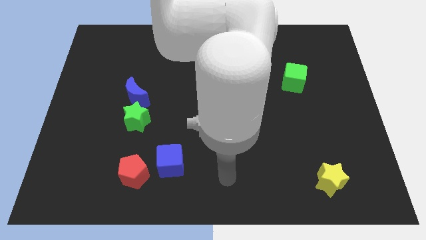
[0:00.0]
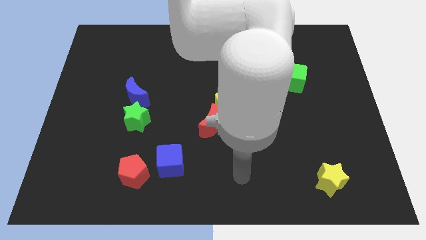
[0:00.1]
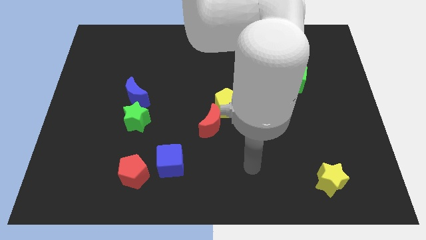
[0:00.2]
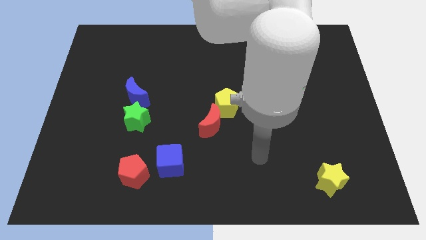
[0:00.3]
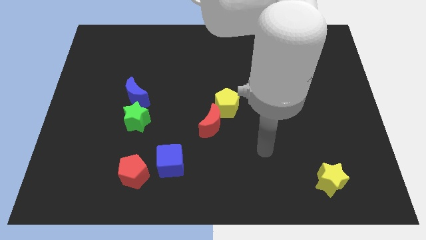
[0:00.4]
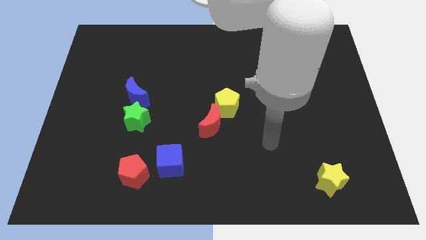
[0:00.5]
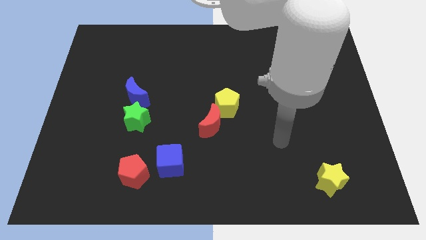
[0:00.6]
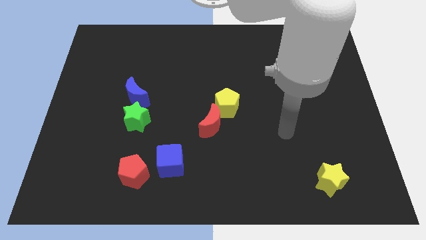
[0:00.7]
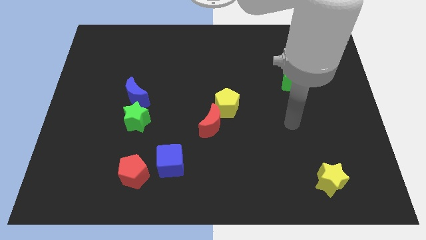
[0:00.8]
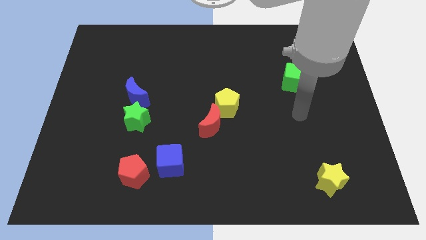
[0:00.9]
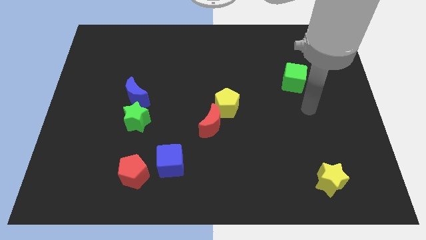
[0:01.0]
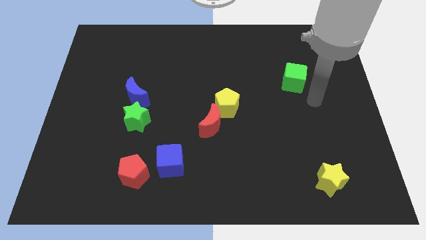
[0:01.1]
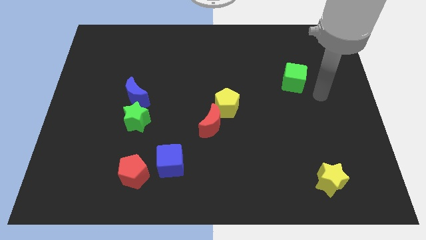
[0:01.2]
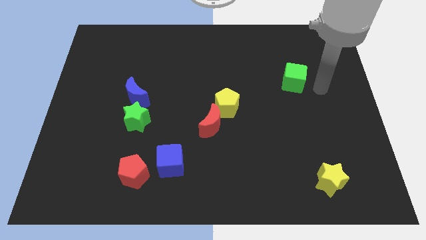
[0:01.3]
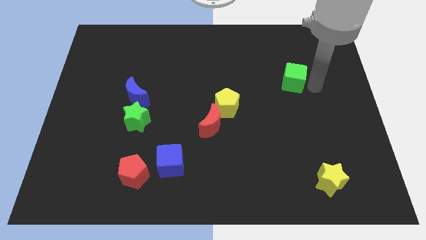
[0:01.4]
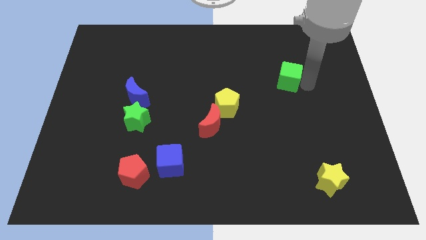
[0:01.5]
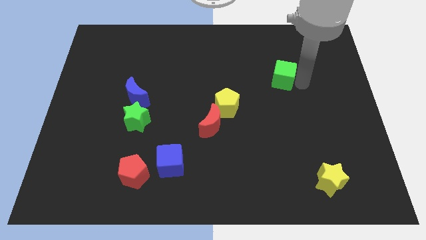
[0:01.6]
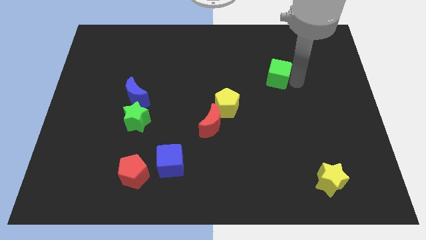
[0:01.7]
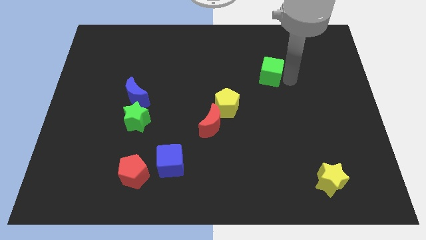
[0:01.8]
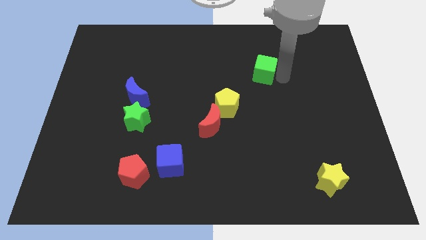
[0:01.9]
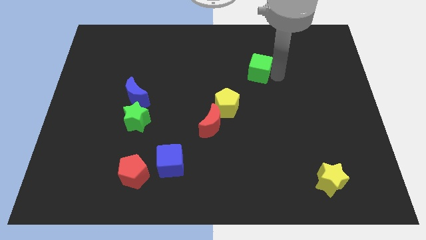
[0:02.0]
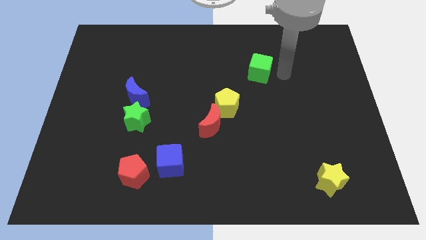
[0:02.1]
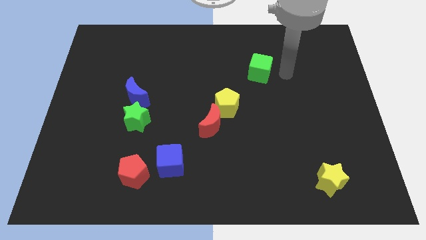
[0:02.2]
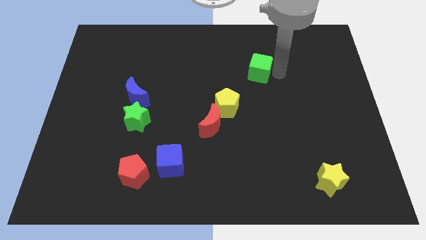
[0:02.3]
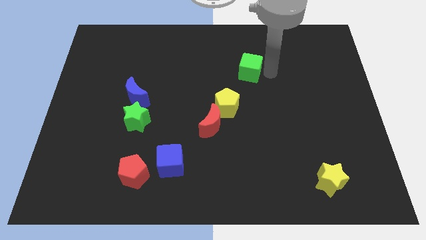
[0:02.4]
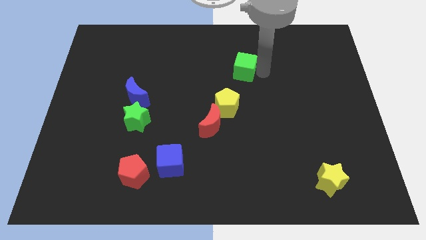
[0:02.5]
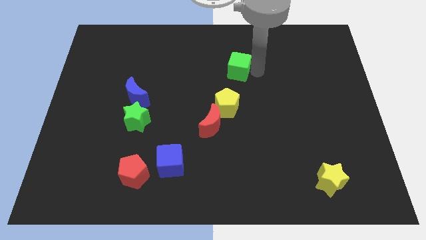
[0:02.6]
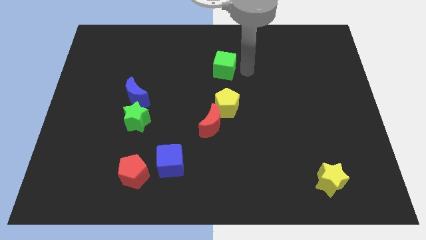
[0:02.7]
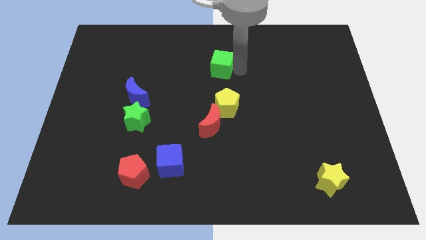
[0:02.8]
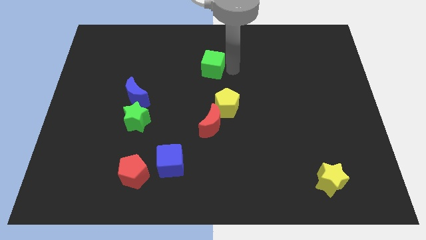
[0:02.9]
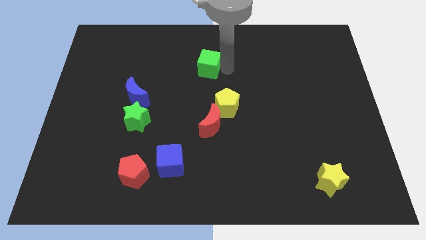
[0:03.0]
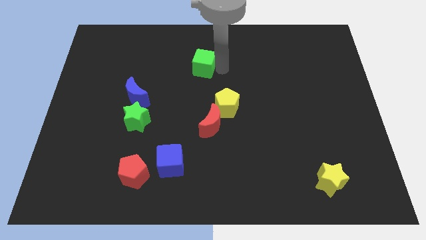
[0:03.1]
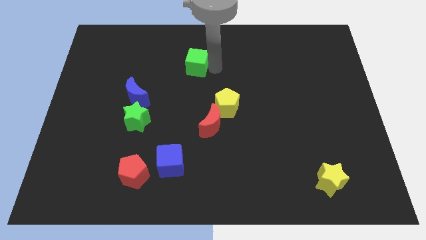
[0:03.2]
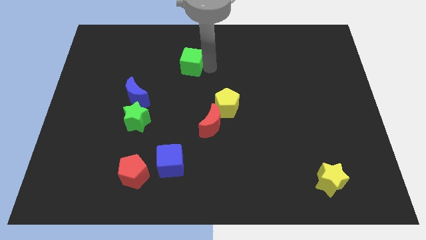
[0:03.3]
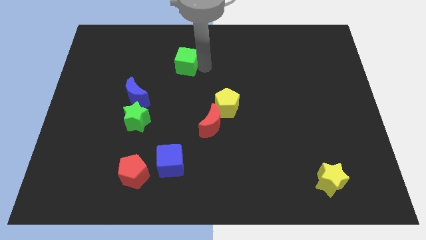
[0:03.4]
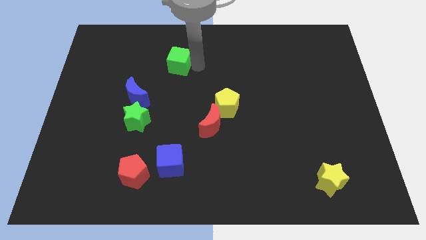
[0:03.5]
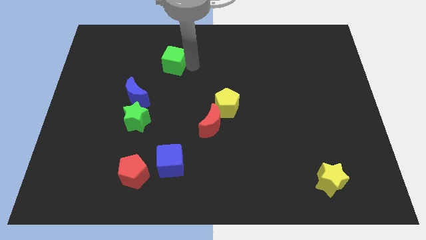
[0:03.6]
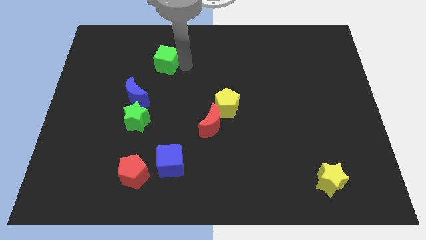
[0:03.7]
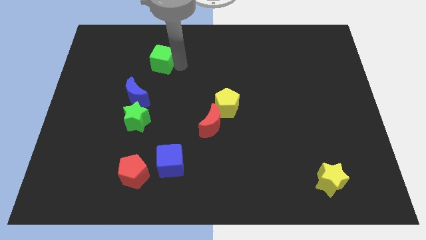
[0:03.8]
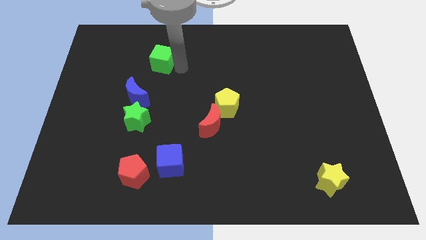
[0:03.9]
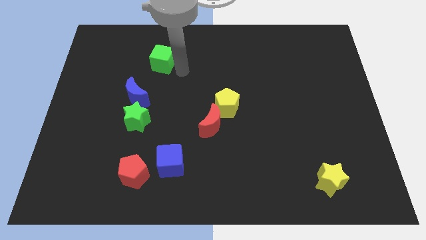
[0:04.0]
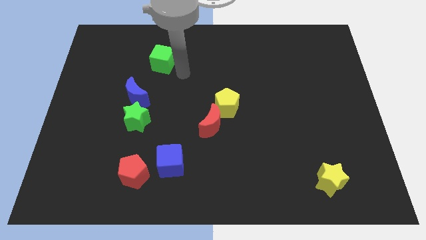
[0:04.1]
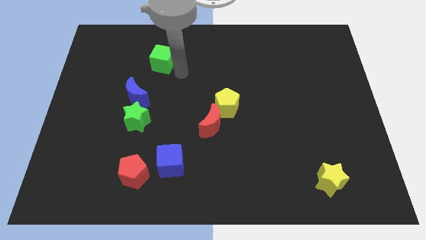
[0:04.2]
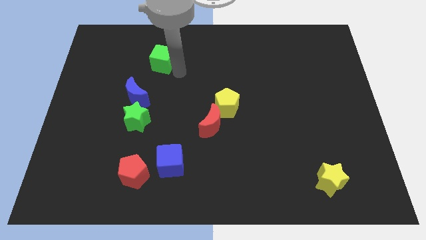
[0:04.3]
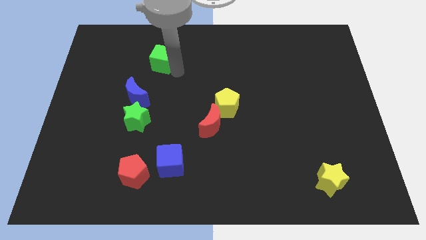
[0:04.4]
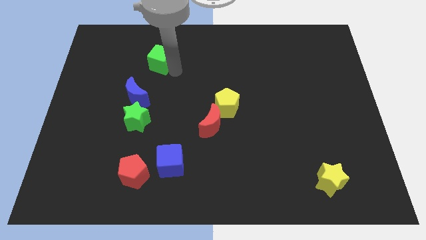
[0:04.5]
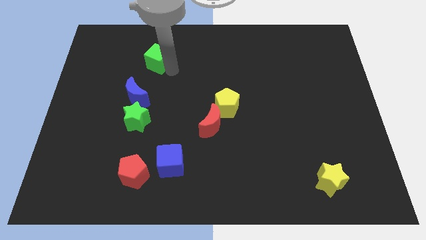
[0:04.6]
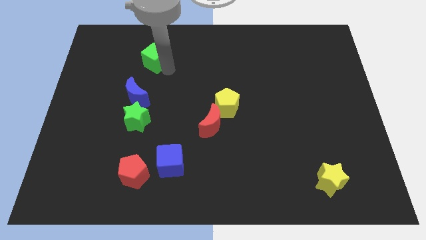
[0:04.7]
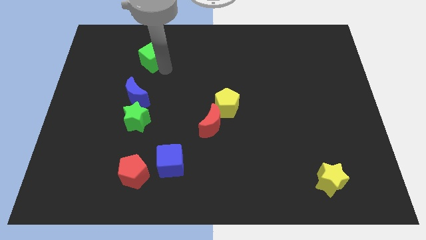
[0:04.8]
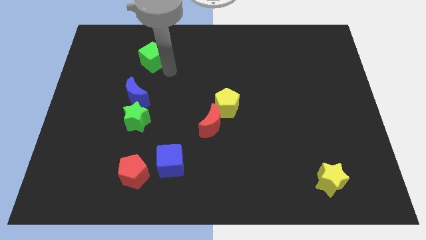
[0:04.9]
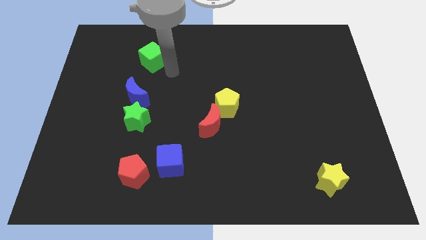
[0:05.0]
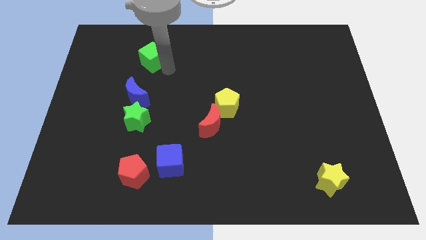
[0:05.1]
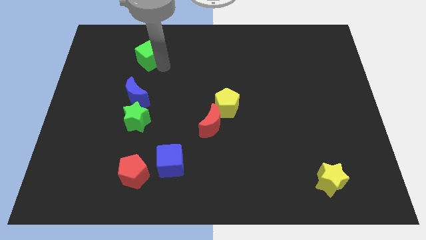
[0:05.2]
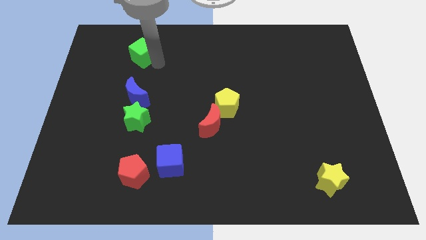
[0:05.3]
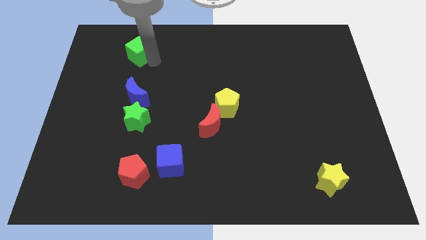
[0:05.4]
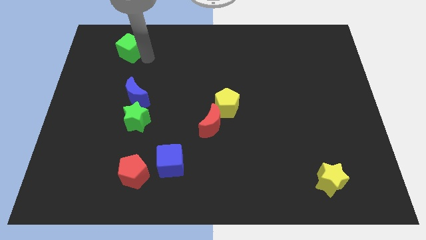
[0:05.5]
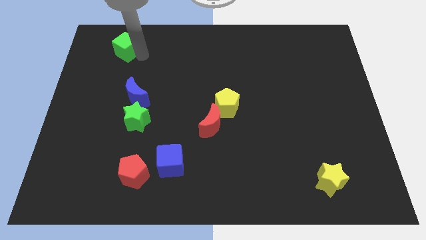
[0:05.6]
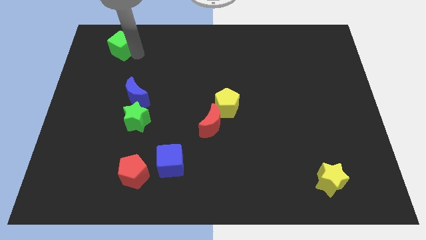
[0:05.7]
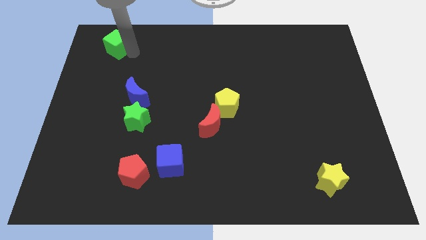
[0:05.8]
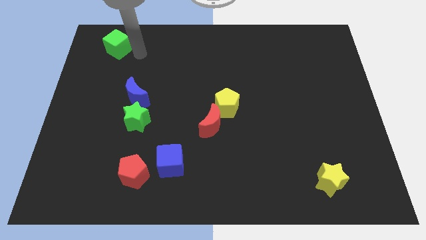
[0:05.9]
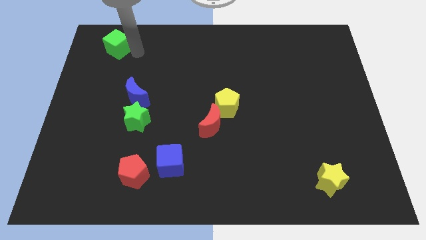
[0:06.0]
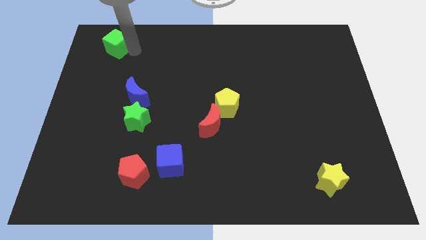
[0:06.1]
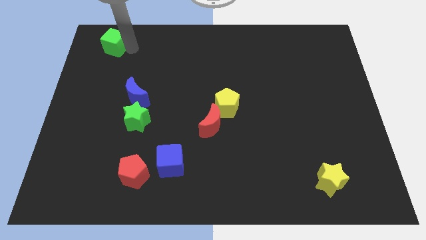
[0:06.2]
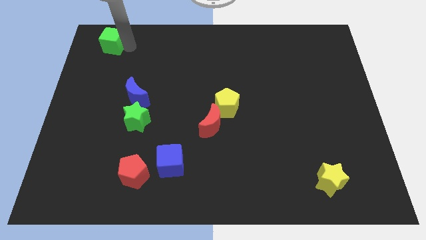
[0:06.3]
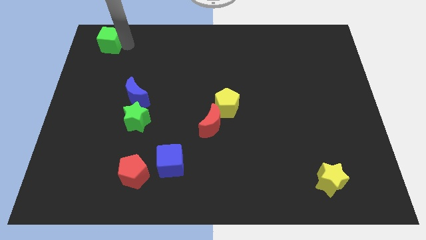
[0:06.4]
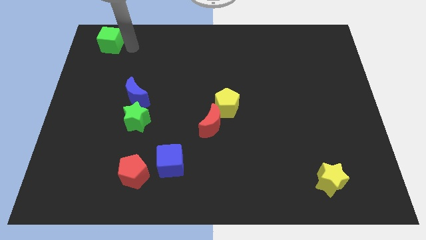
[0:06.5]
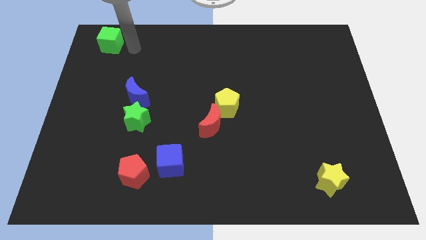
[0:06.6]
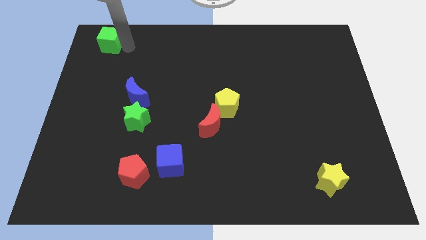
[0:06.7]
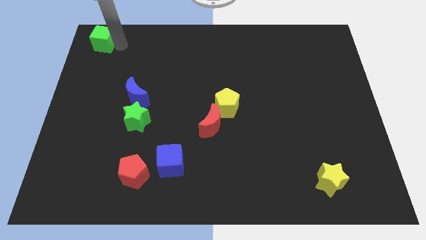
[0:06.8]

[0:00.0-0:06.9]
slide the green cube to the top left corner
